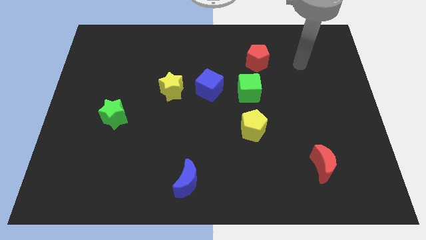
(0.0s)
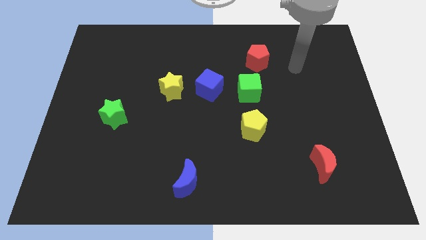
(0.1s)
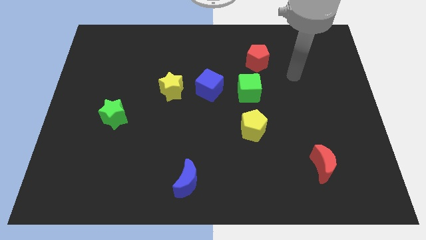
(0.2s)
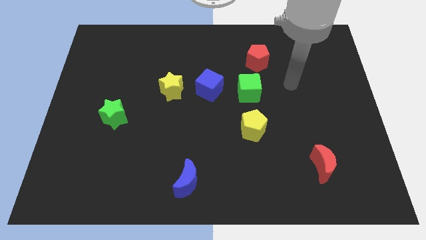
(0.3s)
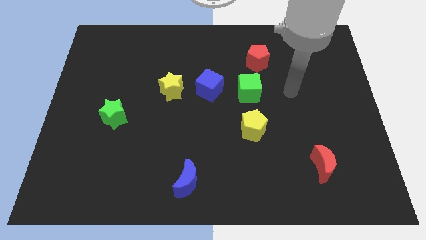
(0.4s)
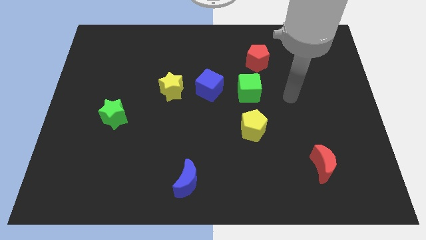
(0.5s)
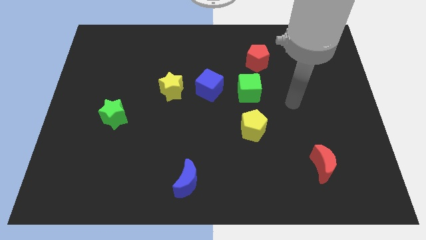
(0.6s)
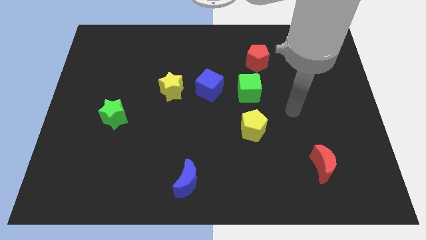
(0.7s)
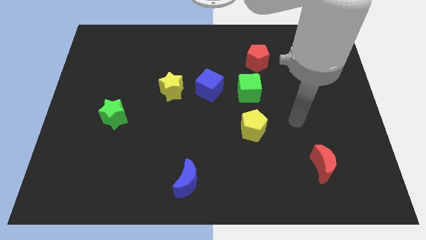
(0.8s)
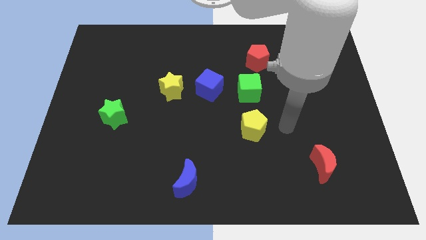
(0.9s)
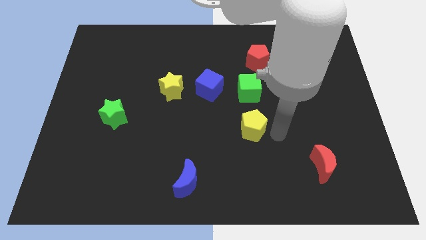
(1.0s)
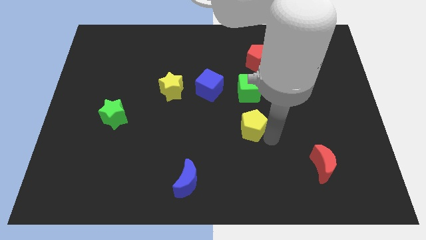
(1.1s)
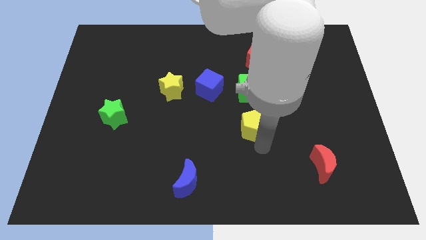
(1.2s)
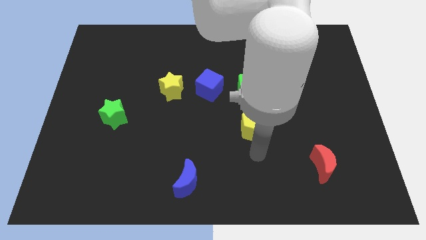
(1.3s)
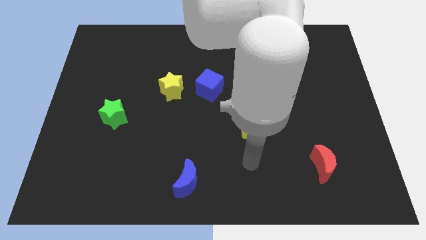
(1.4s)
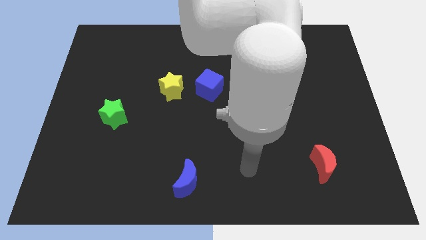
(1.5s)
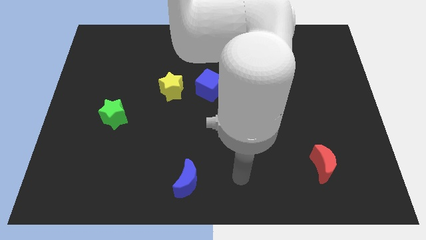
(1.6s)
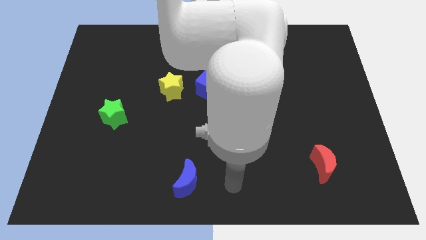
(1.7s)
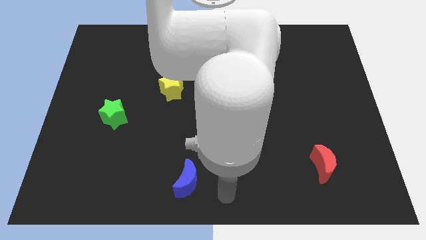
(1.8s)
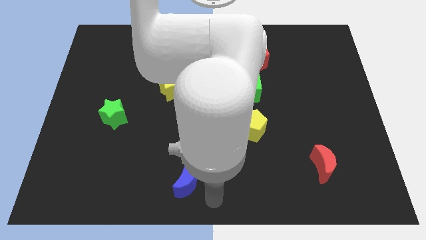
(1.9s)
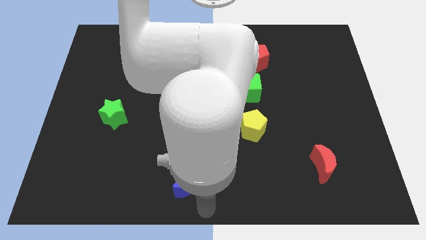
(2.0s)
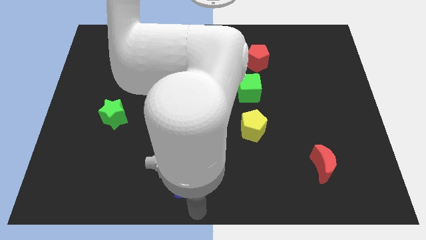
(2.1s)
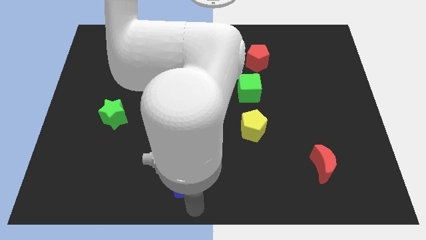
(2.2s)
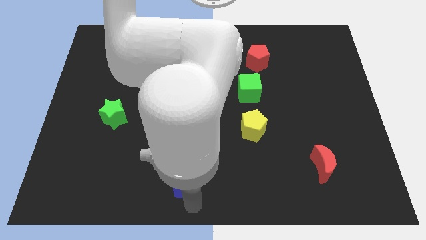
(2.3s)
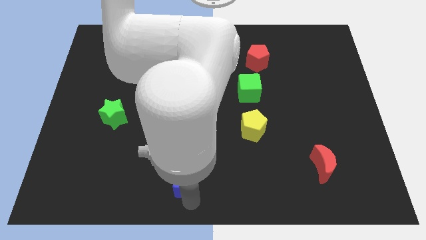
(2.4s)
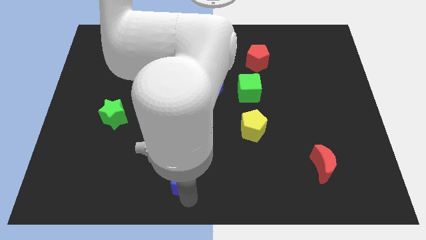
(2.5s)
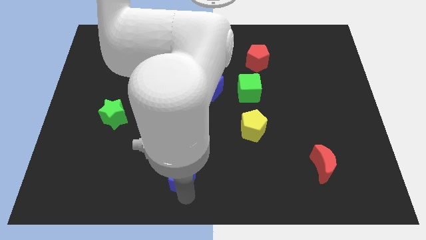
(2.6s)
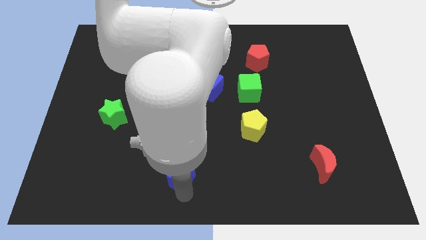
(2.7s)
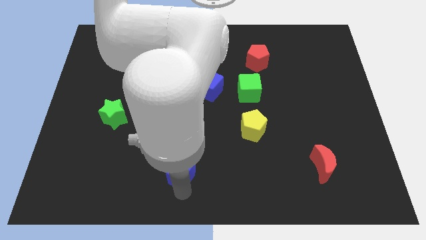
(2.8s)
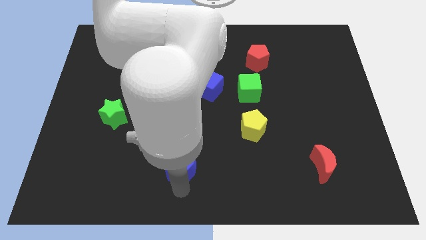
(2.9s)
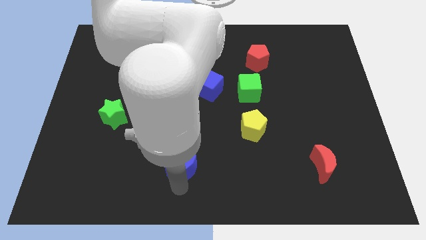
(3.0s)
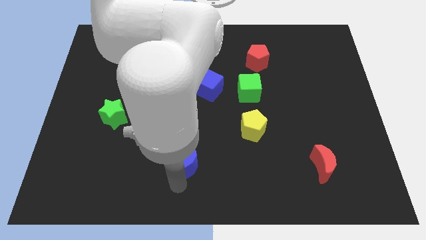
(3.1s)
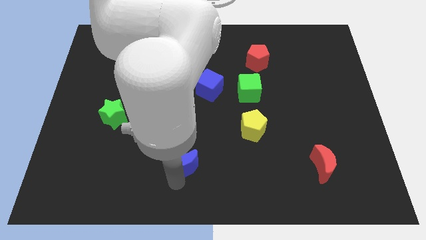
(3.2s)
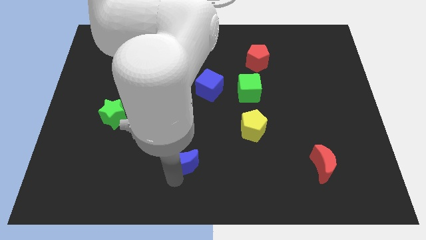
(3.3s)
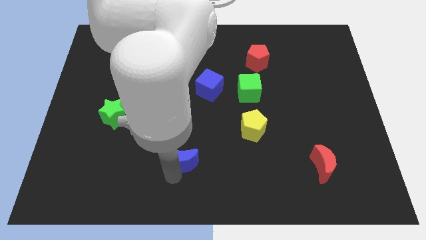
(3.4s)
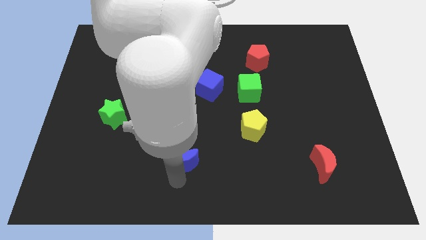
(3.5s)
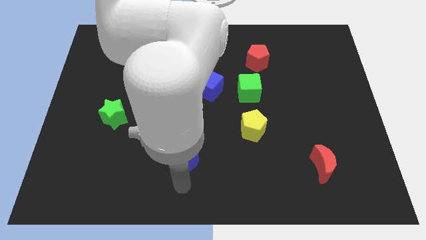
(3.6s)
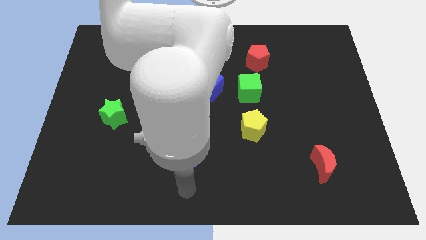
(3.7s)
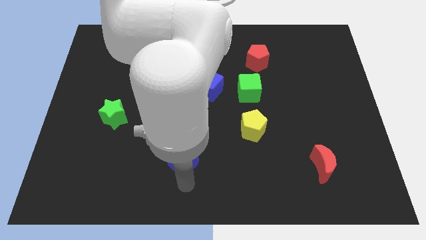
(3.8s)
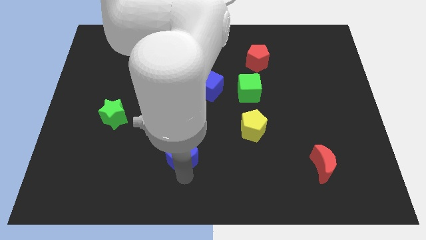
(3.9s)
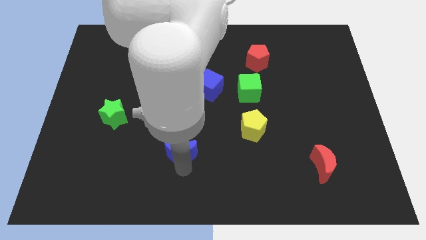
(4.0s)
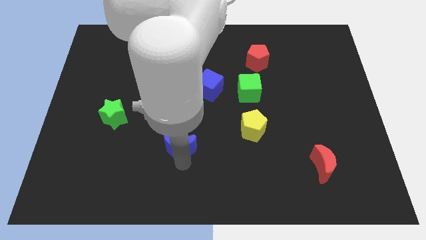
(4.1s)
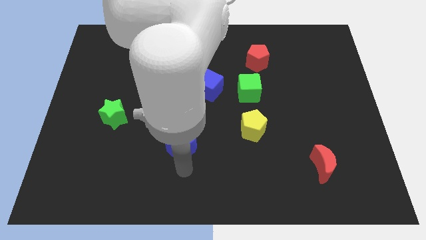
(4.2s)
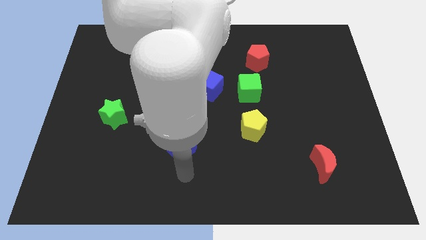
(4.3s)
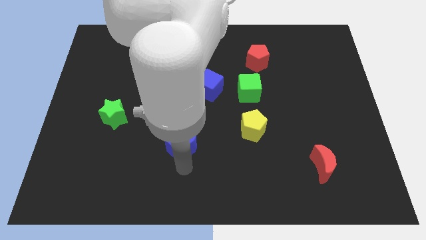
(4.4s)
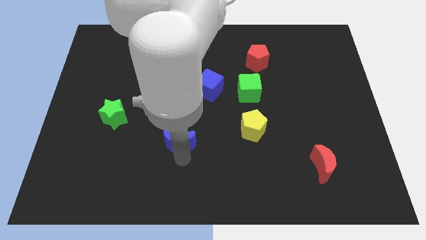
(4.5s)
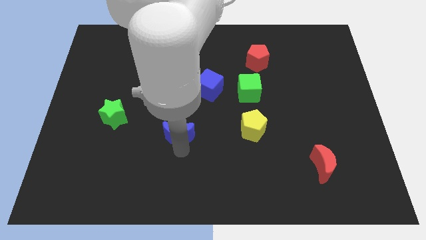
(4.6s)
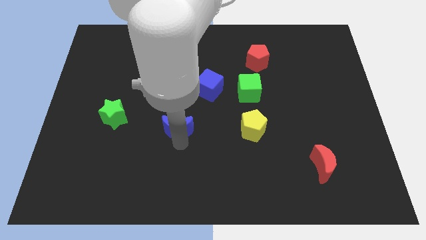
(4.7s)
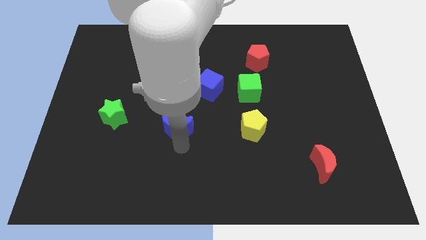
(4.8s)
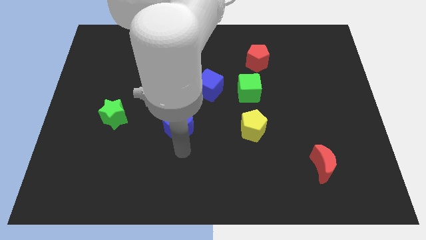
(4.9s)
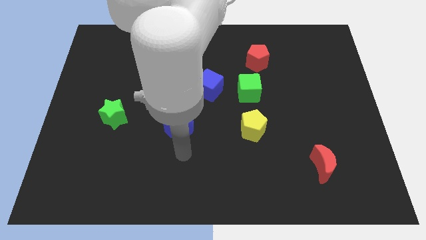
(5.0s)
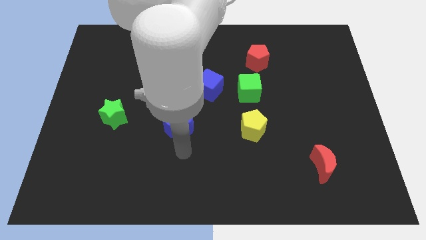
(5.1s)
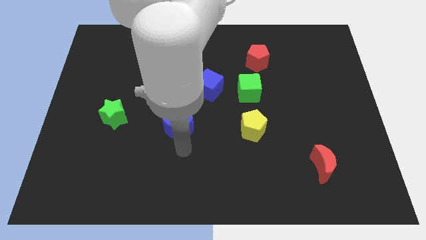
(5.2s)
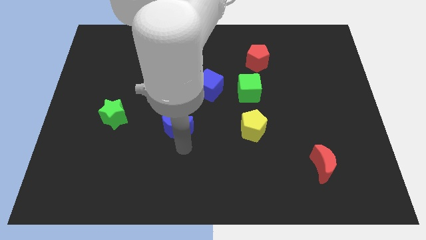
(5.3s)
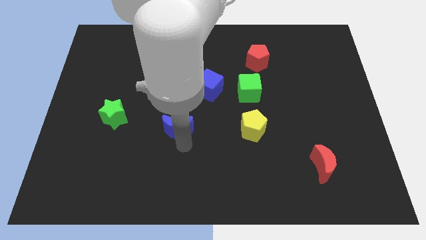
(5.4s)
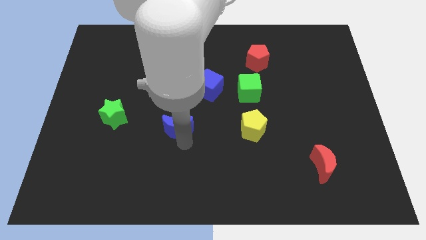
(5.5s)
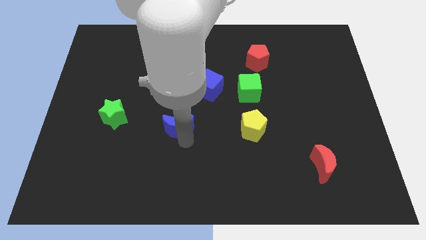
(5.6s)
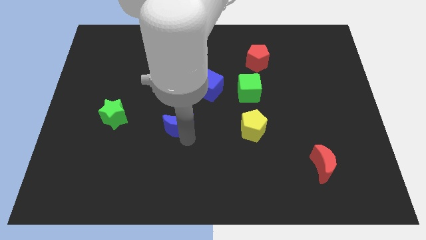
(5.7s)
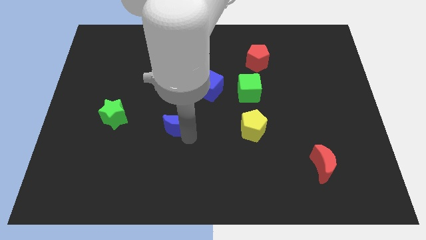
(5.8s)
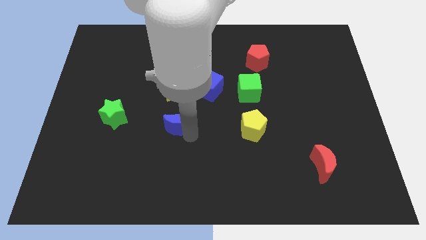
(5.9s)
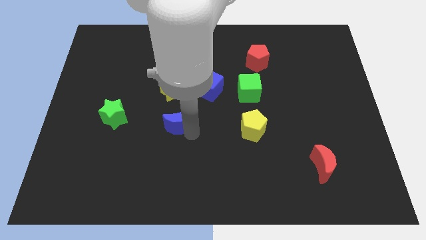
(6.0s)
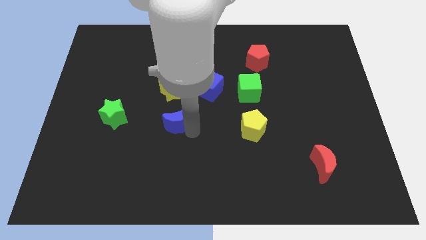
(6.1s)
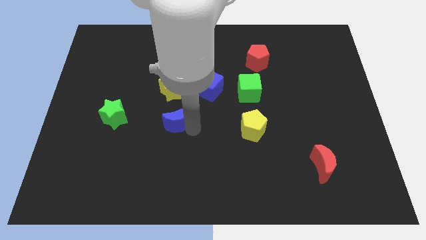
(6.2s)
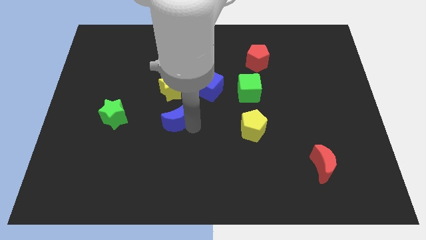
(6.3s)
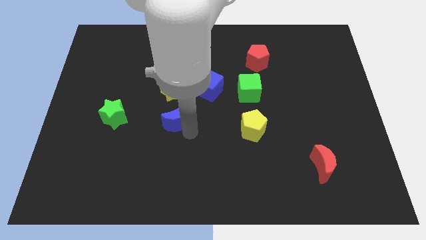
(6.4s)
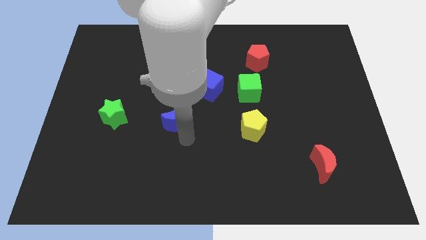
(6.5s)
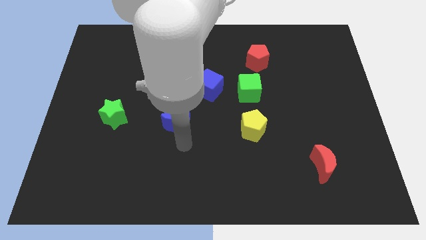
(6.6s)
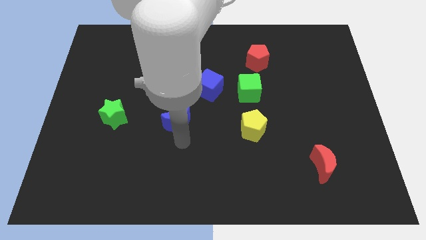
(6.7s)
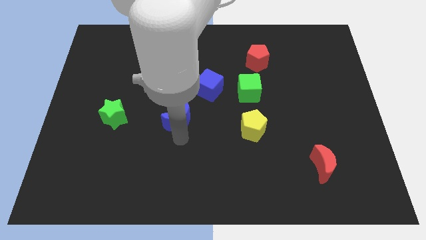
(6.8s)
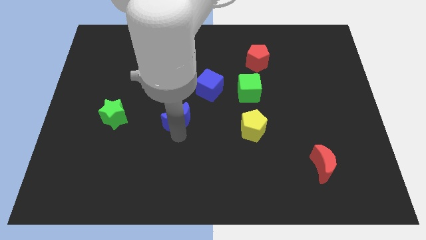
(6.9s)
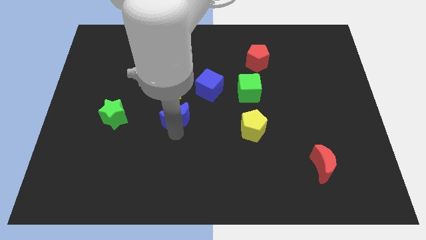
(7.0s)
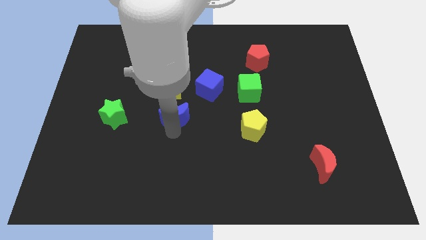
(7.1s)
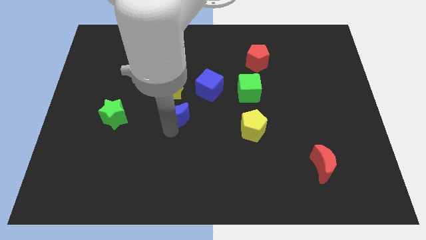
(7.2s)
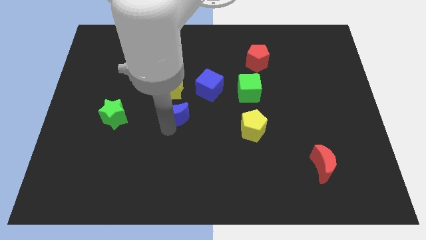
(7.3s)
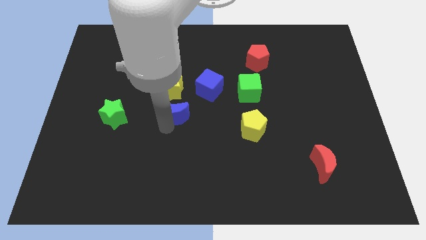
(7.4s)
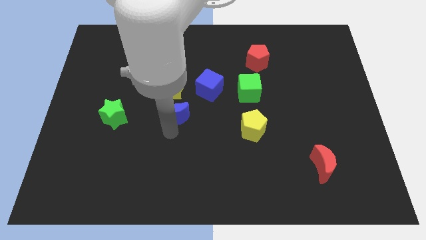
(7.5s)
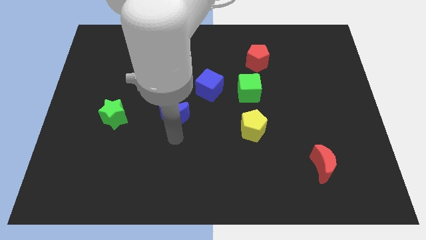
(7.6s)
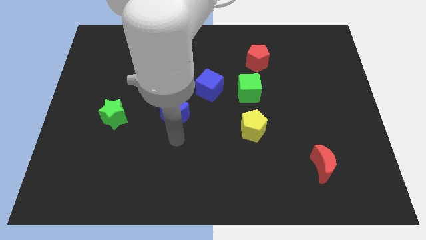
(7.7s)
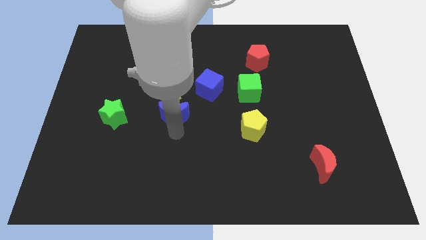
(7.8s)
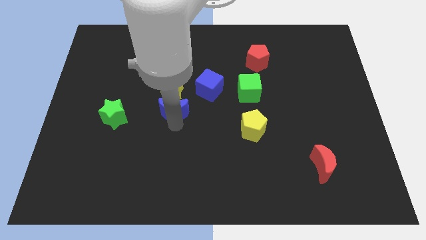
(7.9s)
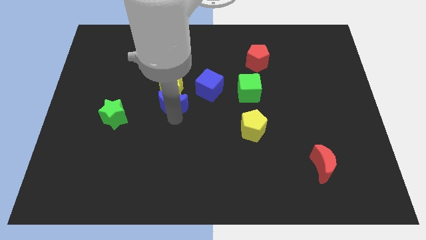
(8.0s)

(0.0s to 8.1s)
push the blue moon next to the yellow star
